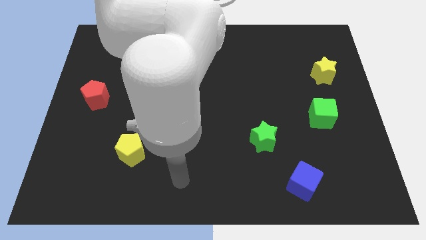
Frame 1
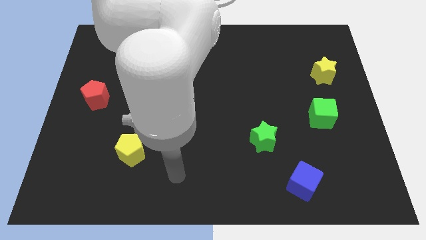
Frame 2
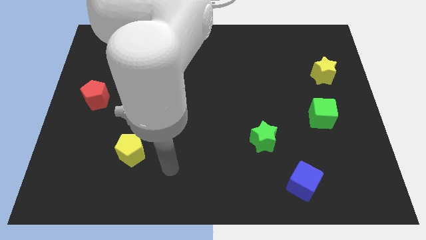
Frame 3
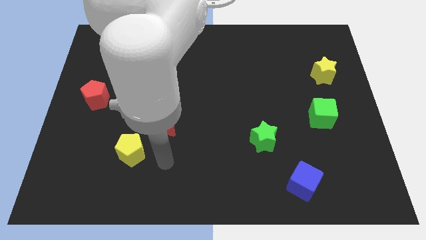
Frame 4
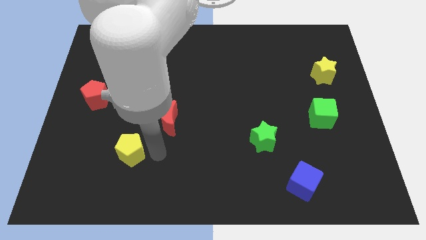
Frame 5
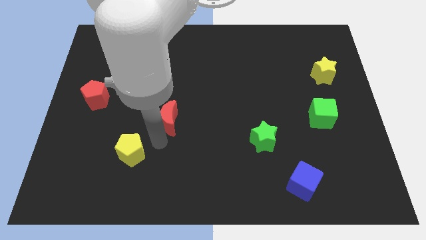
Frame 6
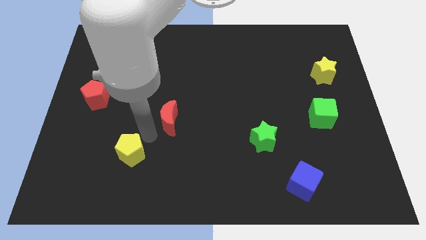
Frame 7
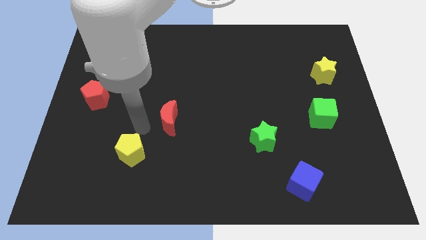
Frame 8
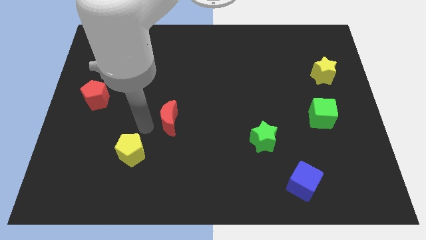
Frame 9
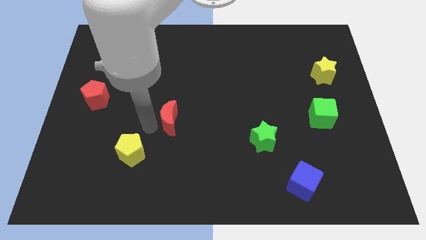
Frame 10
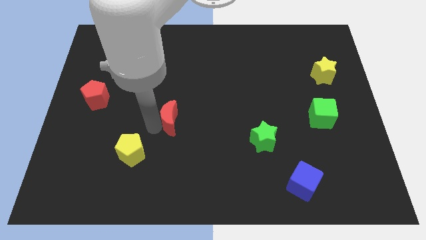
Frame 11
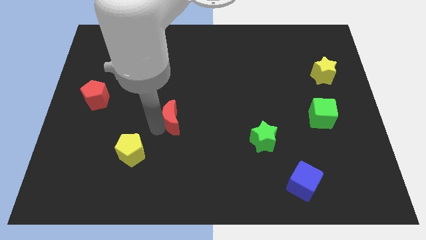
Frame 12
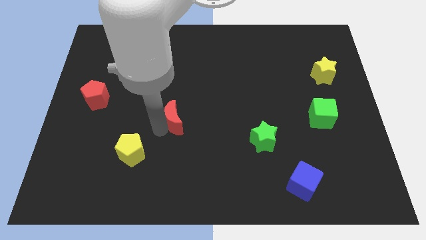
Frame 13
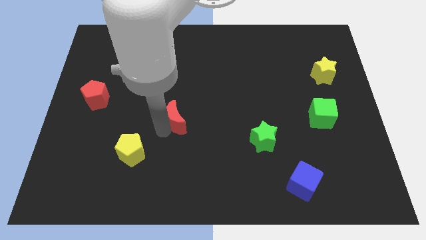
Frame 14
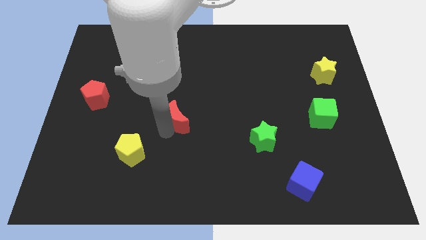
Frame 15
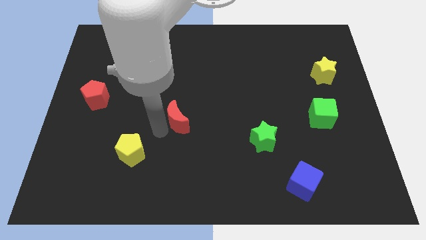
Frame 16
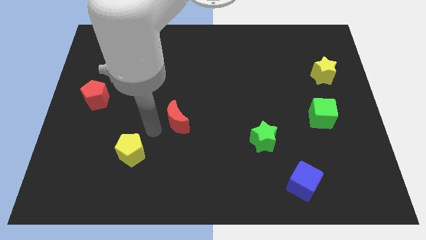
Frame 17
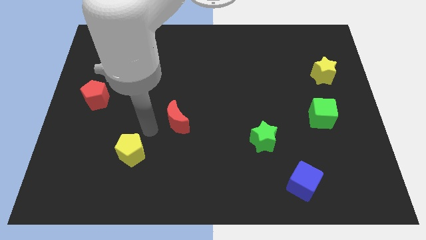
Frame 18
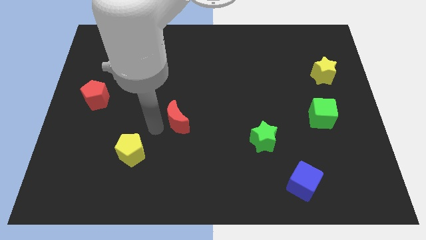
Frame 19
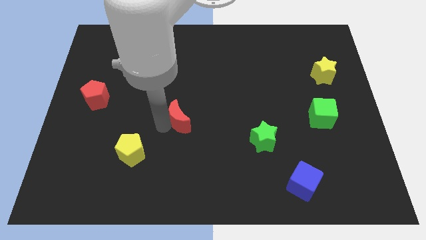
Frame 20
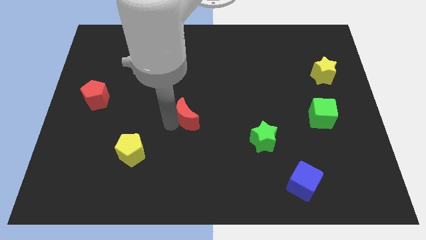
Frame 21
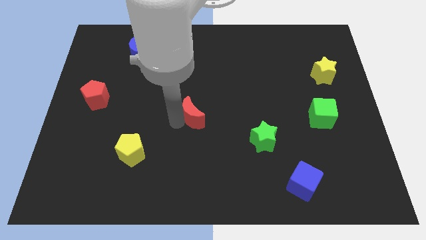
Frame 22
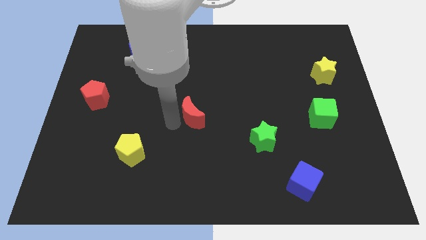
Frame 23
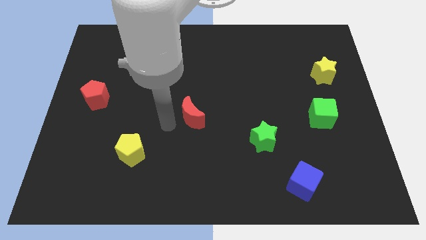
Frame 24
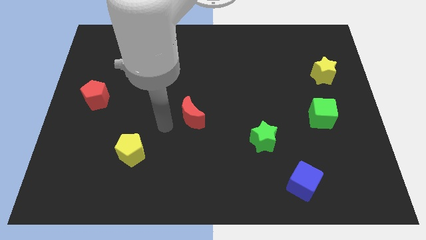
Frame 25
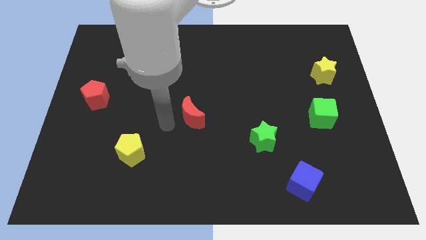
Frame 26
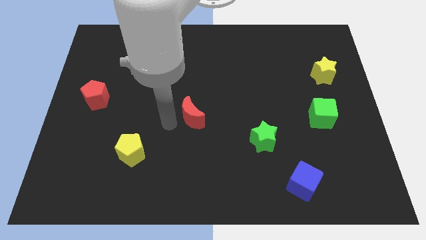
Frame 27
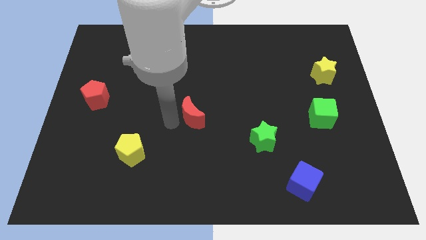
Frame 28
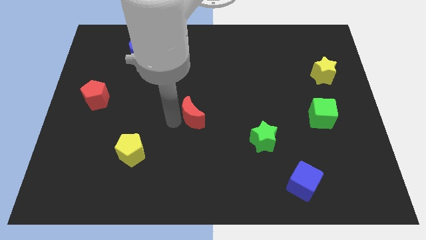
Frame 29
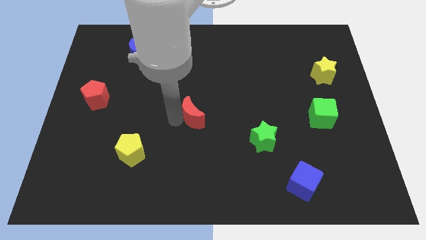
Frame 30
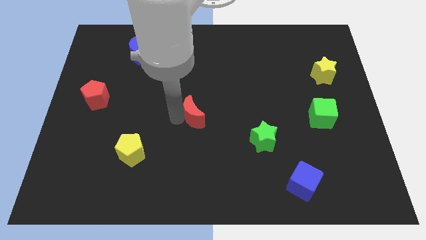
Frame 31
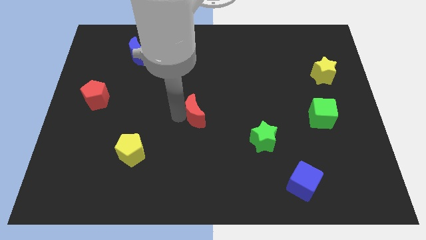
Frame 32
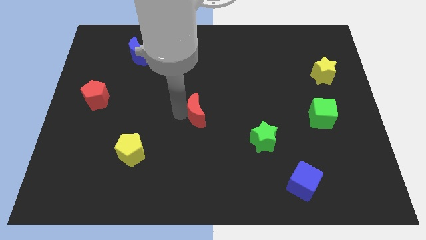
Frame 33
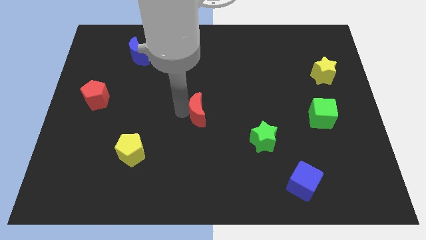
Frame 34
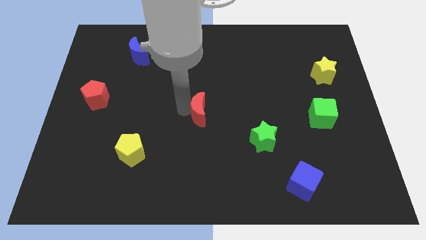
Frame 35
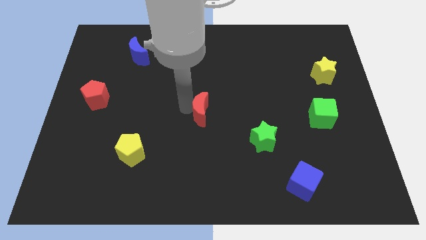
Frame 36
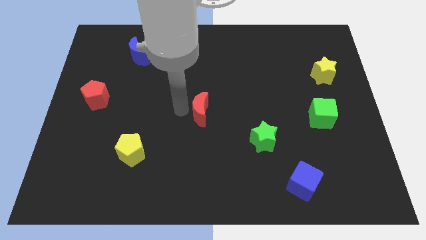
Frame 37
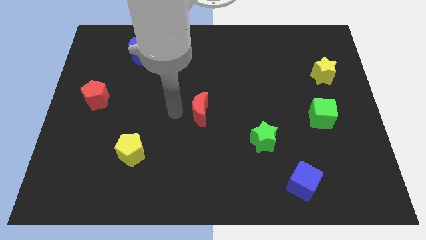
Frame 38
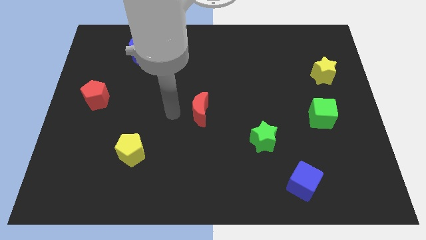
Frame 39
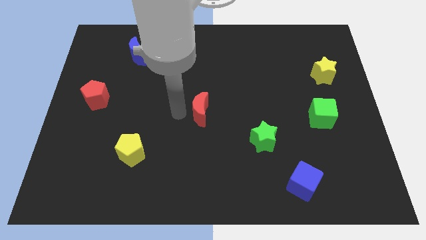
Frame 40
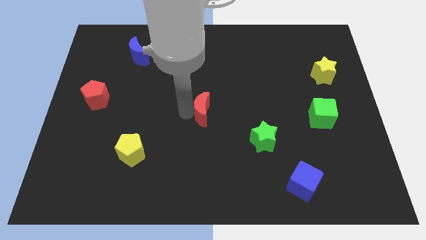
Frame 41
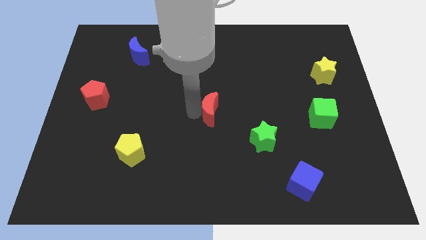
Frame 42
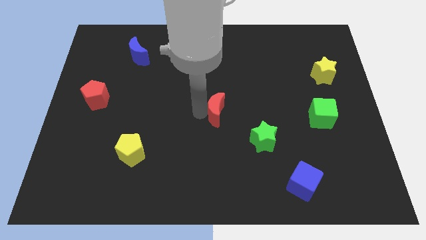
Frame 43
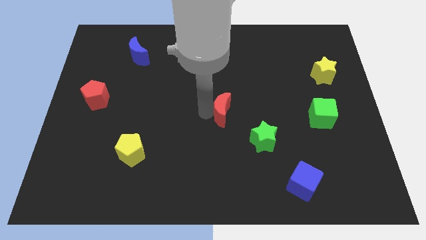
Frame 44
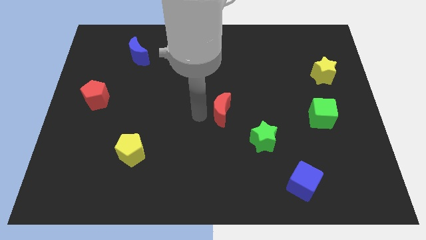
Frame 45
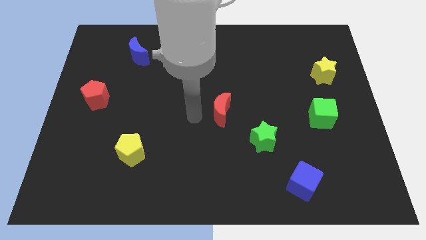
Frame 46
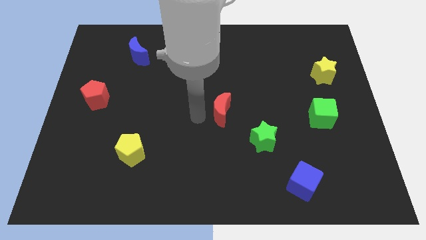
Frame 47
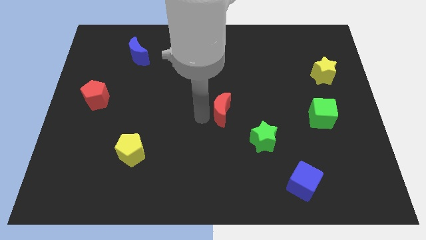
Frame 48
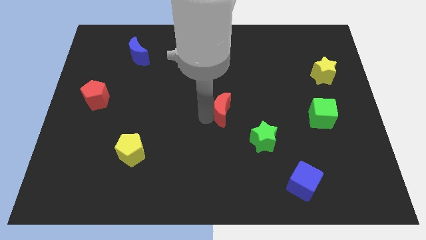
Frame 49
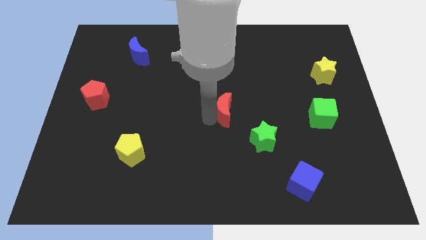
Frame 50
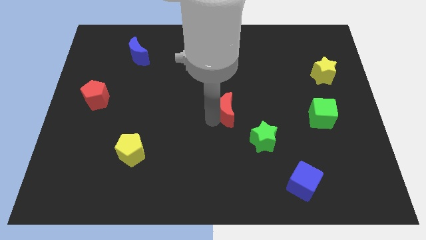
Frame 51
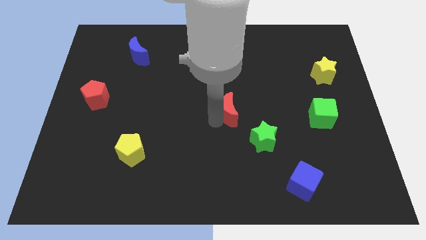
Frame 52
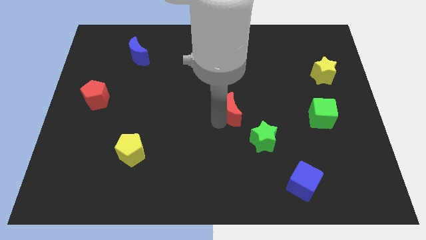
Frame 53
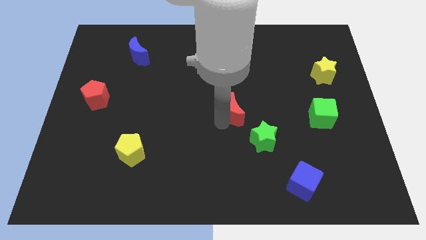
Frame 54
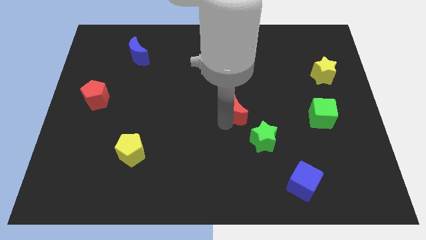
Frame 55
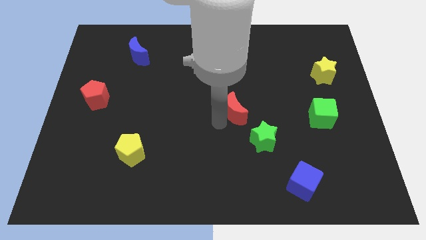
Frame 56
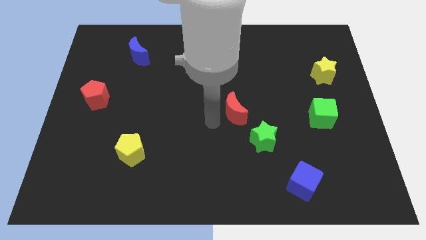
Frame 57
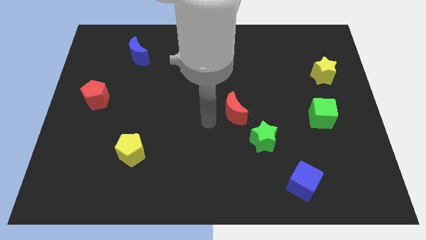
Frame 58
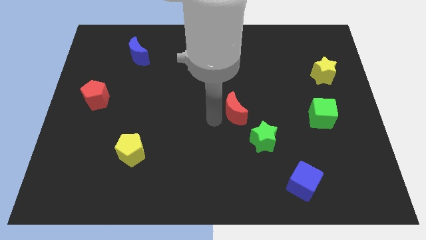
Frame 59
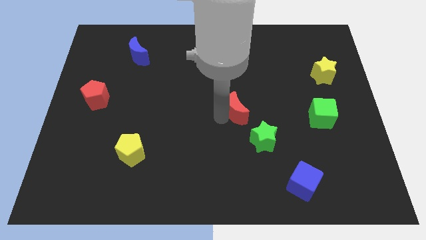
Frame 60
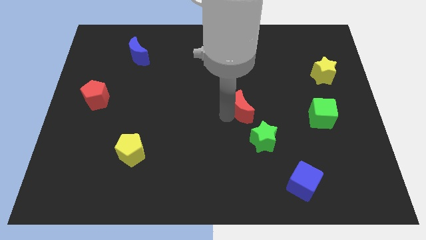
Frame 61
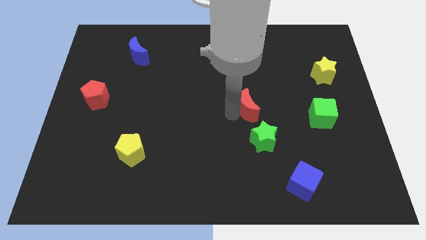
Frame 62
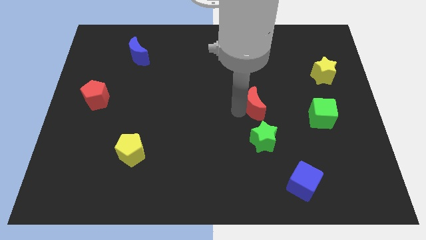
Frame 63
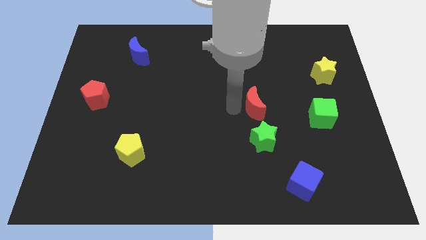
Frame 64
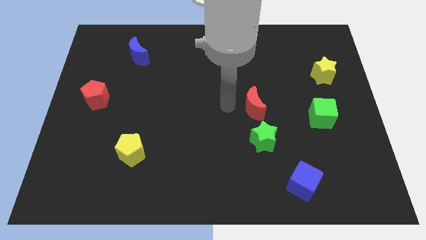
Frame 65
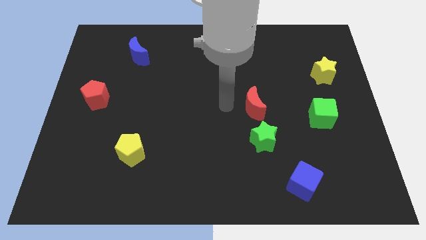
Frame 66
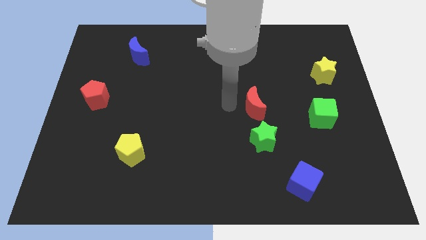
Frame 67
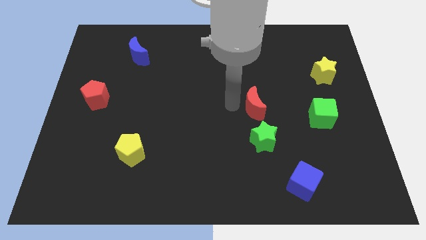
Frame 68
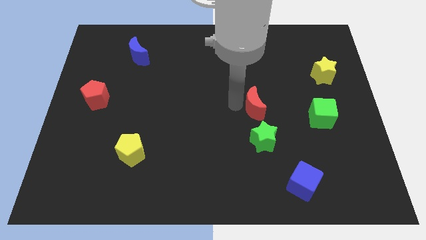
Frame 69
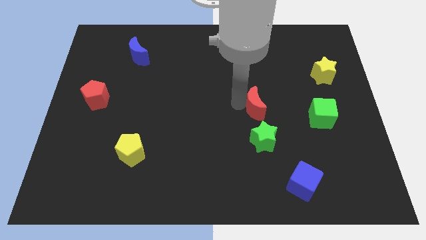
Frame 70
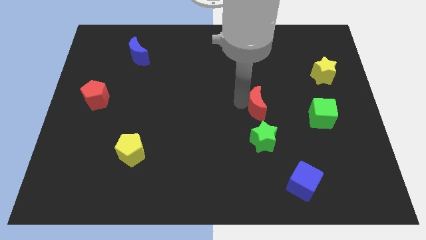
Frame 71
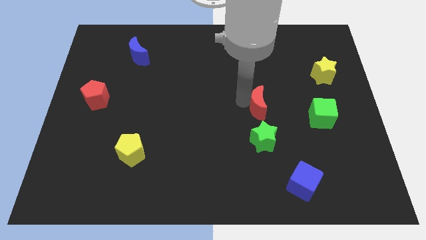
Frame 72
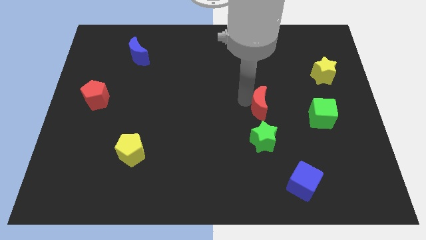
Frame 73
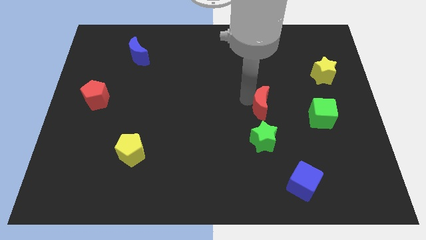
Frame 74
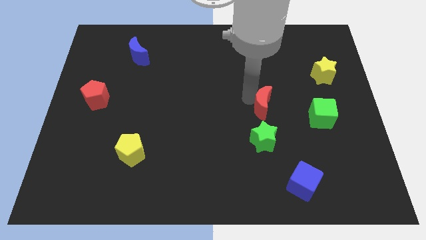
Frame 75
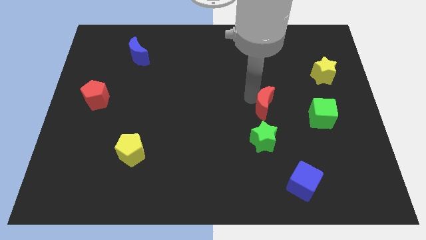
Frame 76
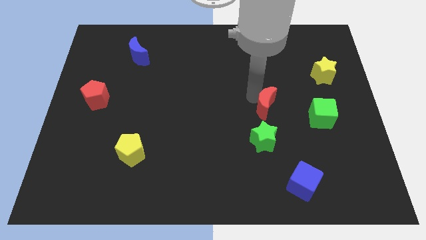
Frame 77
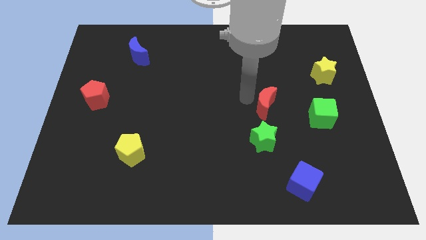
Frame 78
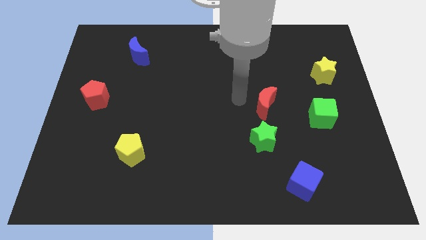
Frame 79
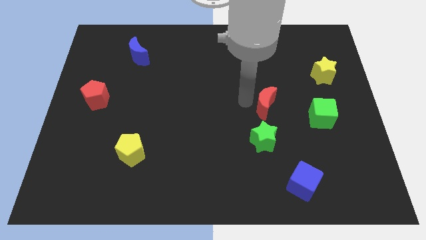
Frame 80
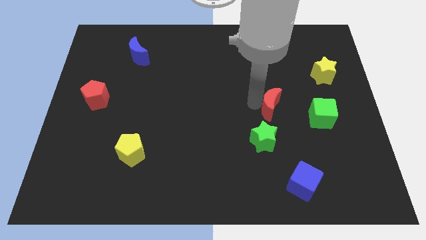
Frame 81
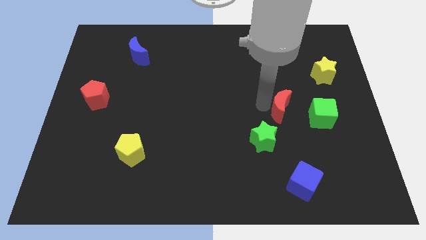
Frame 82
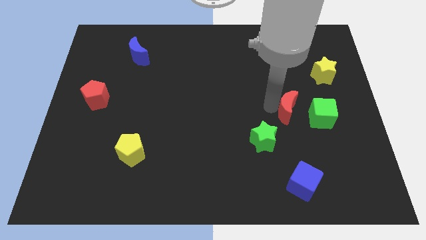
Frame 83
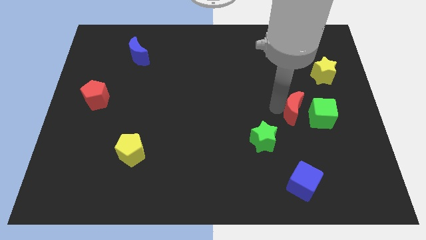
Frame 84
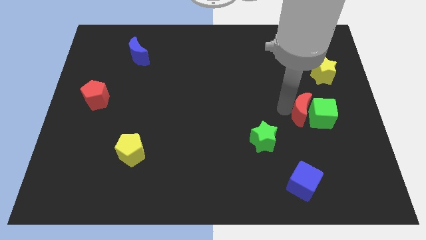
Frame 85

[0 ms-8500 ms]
move the red moon to the green cube
